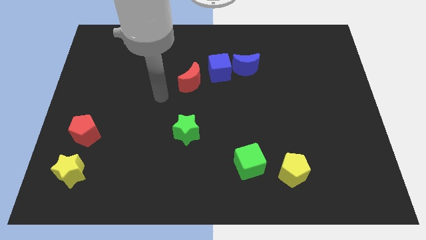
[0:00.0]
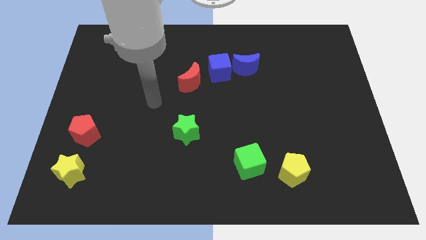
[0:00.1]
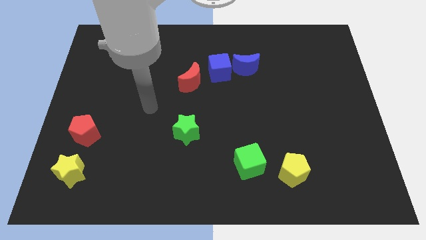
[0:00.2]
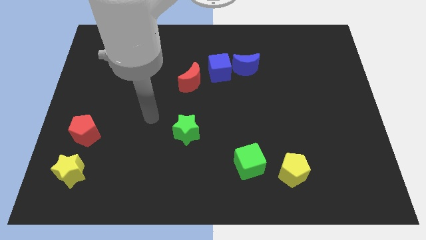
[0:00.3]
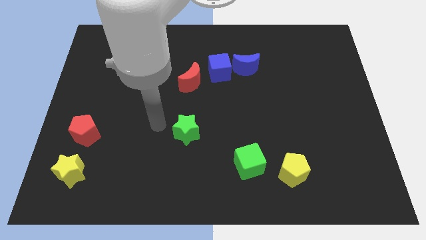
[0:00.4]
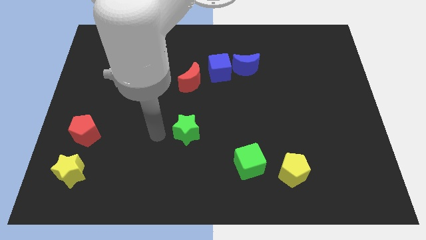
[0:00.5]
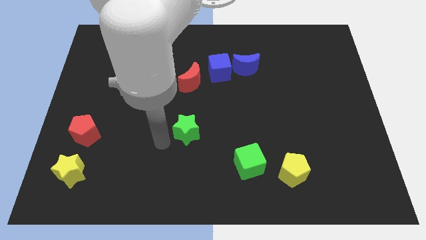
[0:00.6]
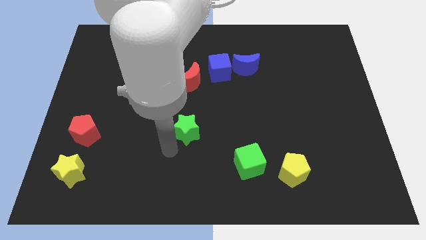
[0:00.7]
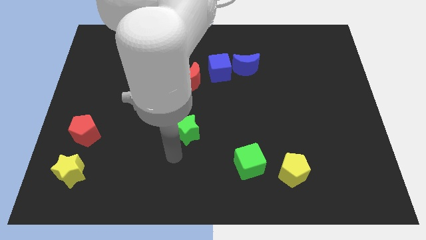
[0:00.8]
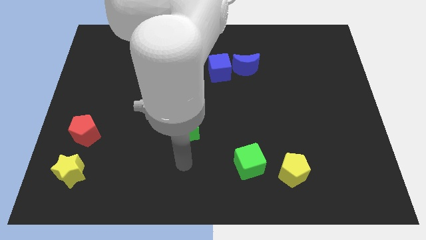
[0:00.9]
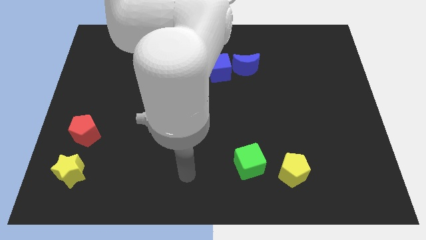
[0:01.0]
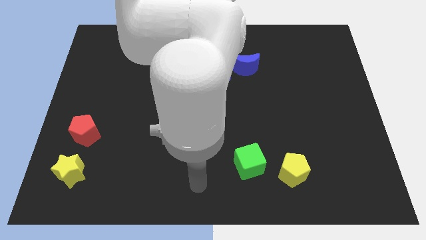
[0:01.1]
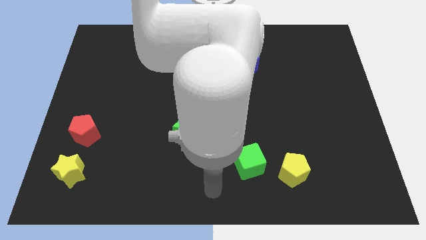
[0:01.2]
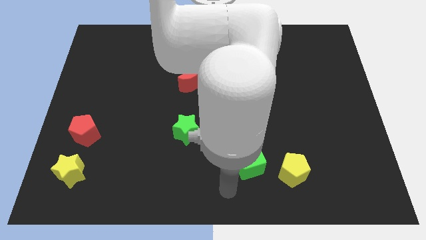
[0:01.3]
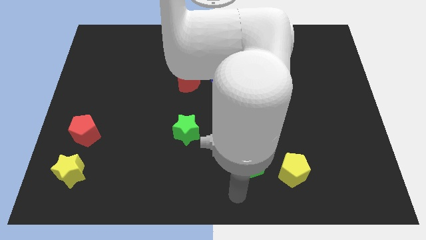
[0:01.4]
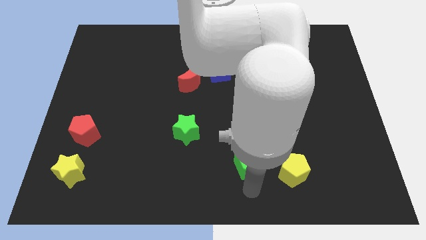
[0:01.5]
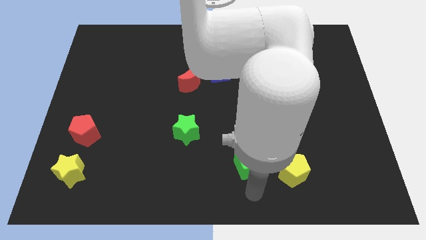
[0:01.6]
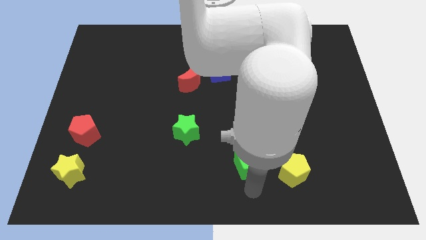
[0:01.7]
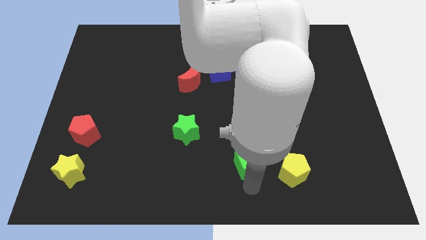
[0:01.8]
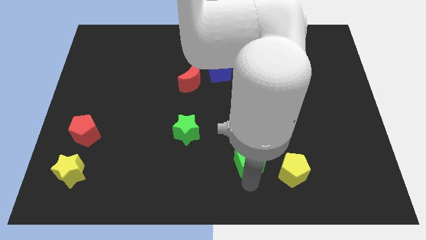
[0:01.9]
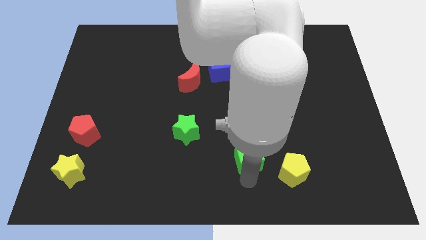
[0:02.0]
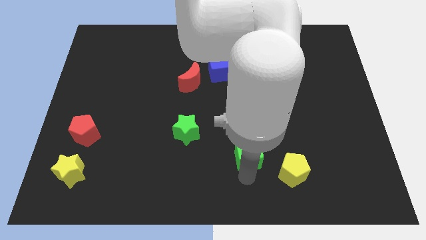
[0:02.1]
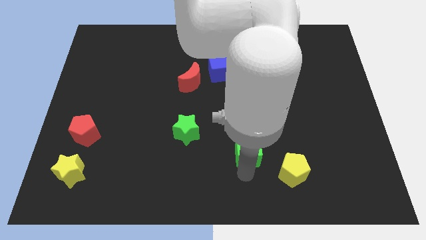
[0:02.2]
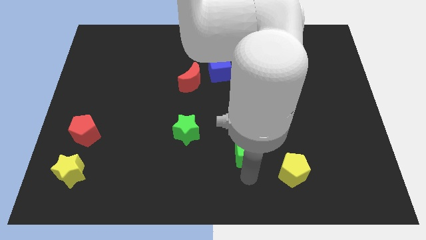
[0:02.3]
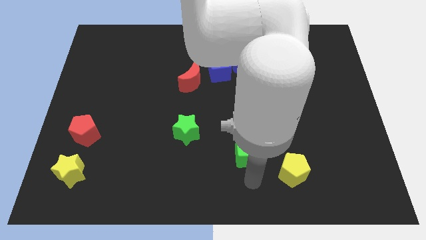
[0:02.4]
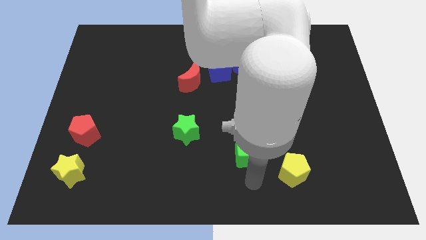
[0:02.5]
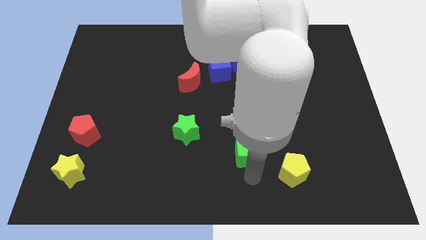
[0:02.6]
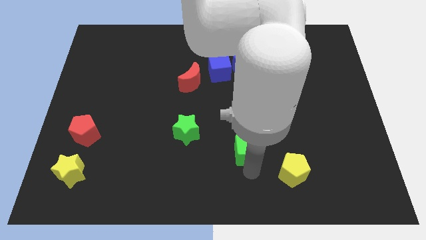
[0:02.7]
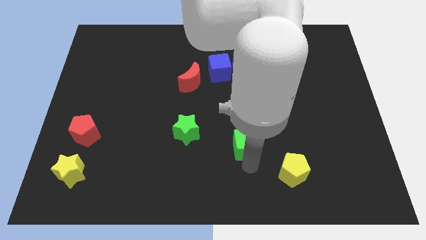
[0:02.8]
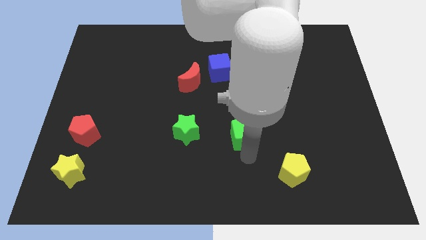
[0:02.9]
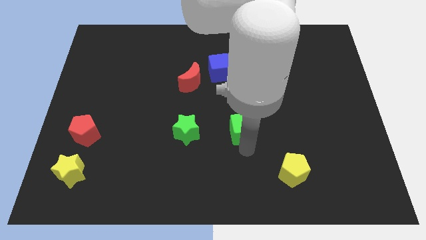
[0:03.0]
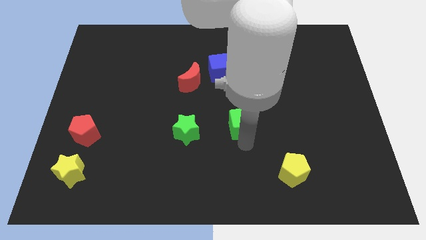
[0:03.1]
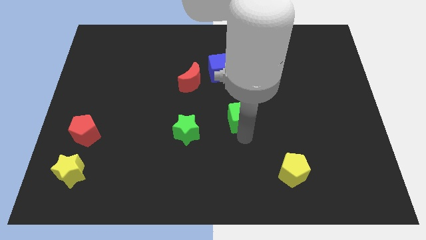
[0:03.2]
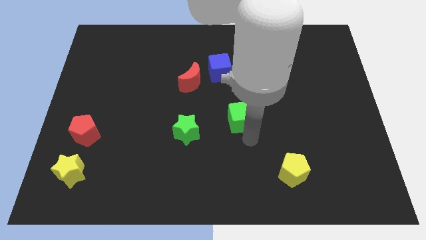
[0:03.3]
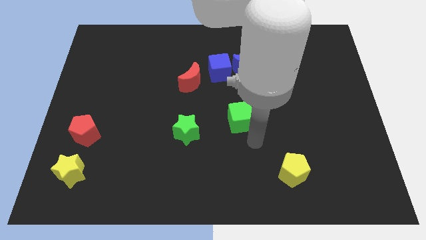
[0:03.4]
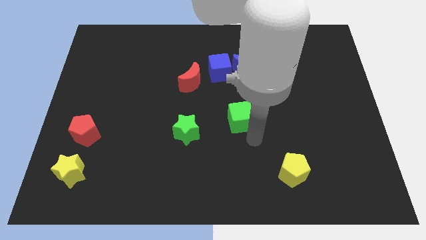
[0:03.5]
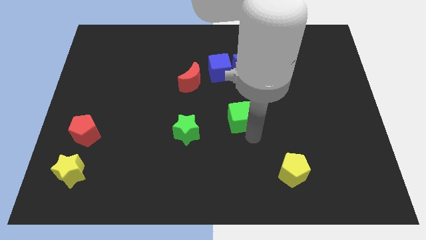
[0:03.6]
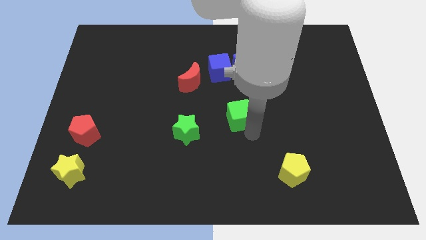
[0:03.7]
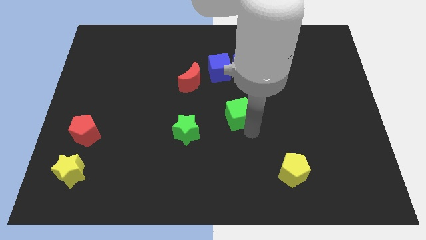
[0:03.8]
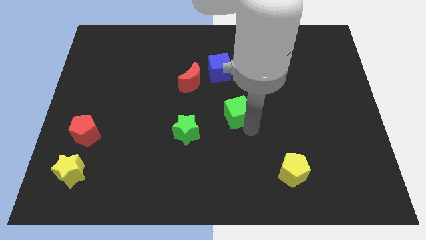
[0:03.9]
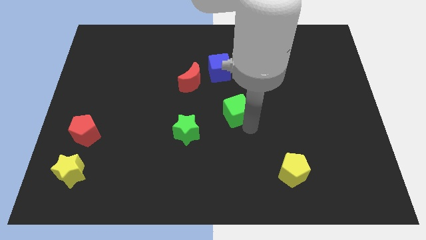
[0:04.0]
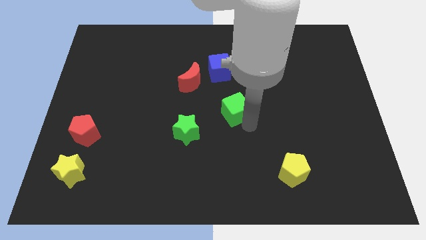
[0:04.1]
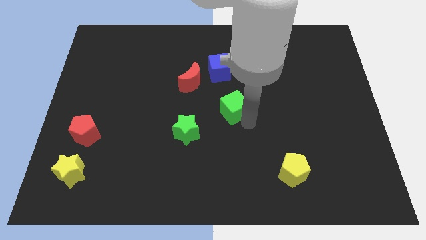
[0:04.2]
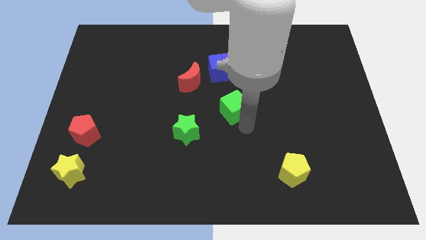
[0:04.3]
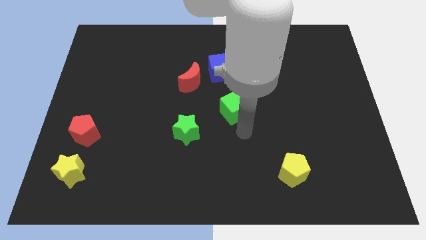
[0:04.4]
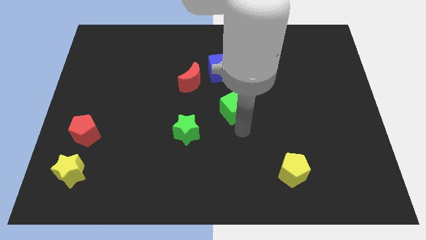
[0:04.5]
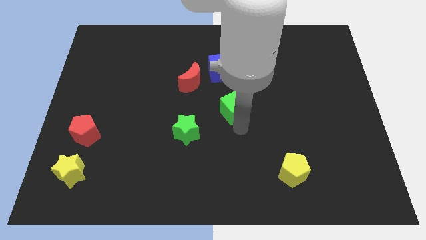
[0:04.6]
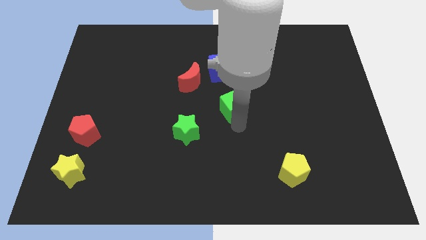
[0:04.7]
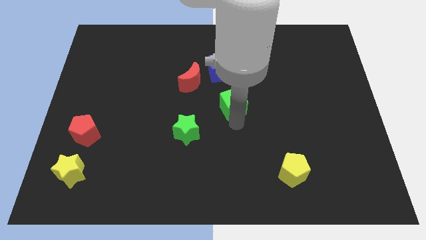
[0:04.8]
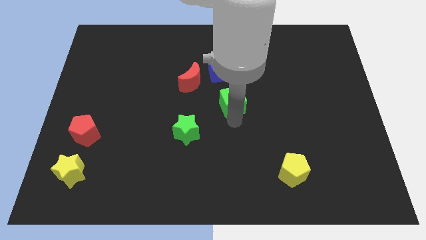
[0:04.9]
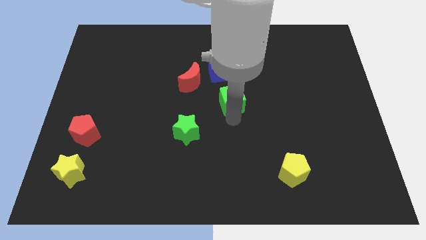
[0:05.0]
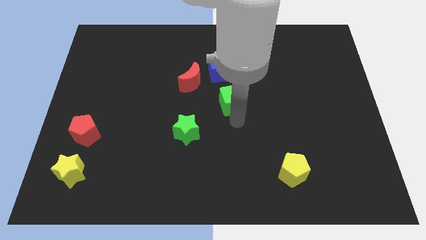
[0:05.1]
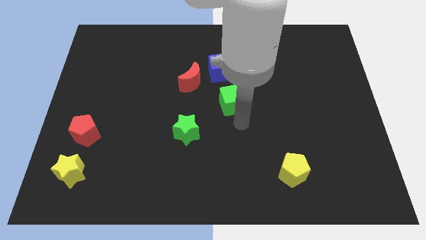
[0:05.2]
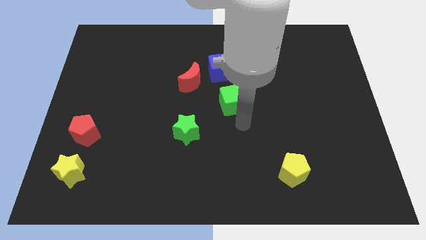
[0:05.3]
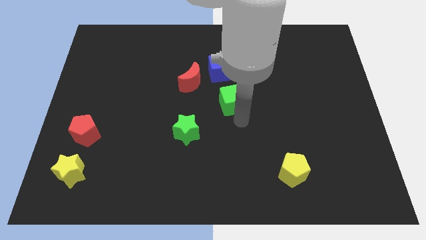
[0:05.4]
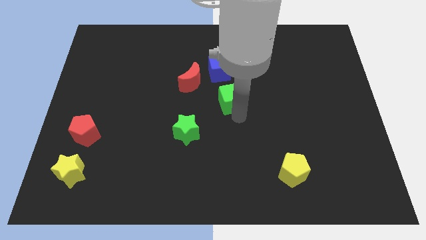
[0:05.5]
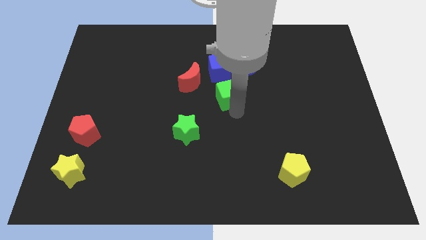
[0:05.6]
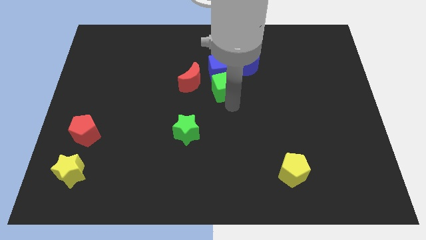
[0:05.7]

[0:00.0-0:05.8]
put the green cube towards the blue cube

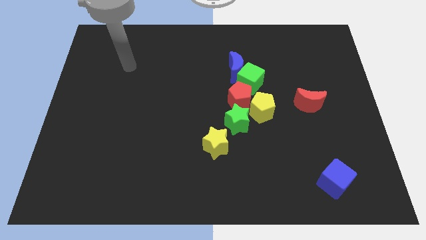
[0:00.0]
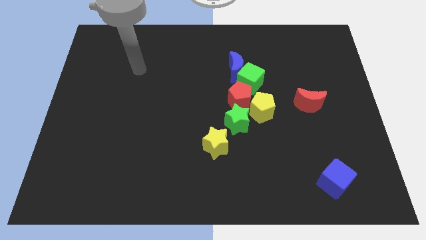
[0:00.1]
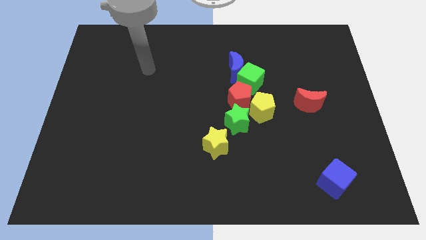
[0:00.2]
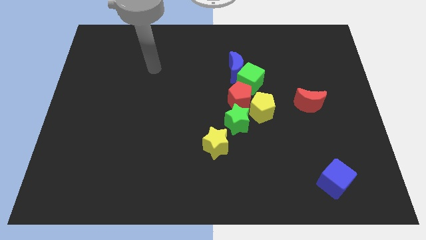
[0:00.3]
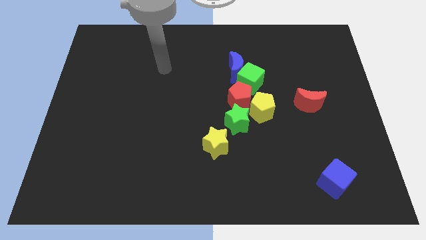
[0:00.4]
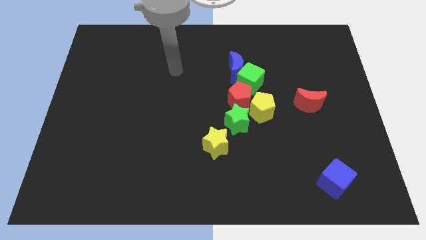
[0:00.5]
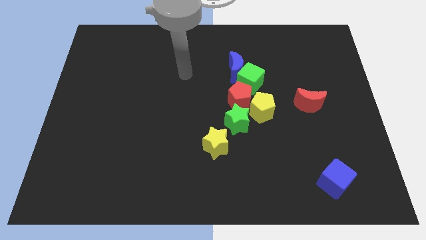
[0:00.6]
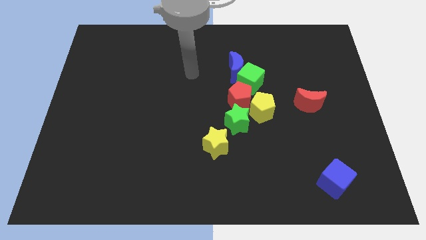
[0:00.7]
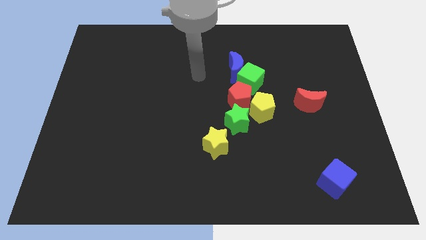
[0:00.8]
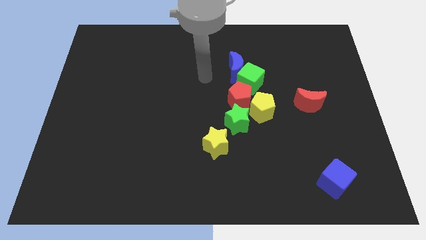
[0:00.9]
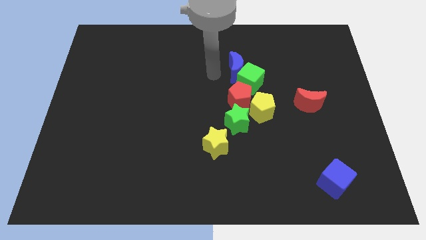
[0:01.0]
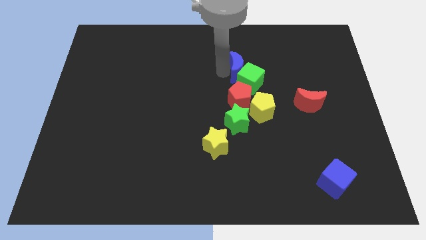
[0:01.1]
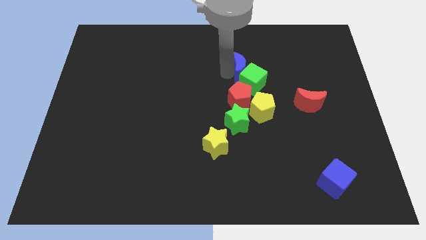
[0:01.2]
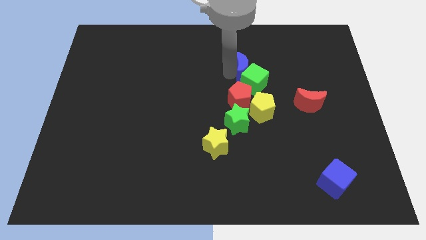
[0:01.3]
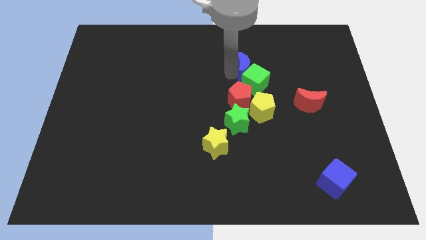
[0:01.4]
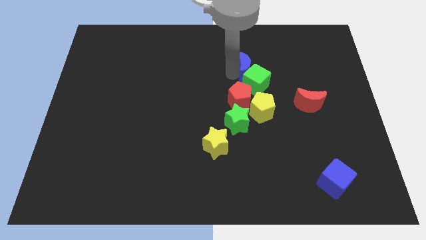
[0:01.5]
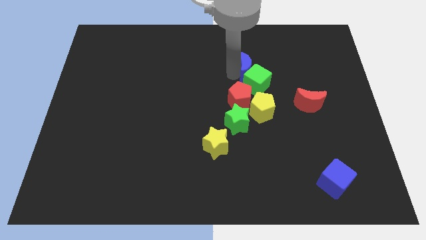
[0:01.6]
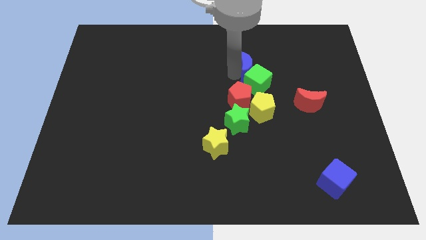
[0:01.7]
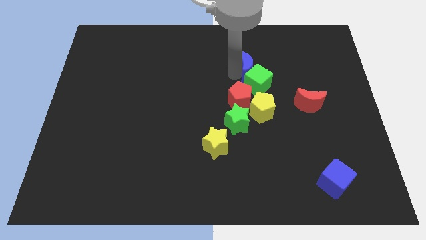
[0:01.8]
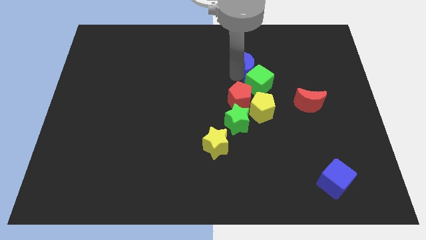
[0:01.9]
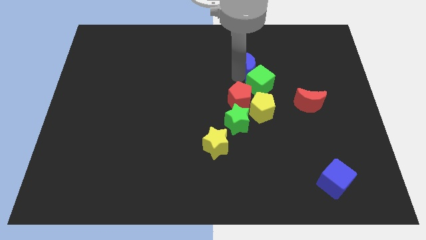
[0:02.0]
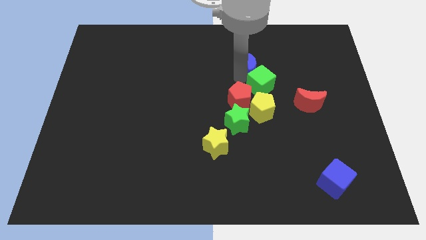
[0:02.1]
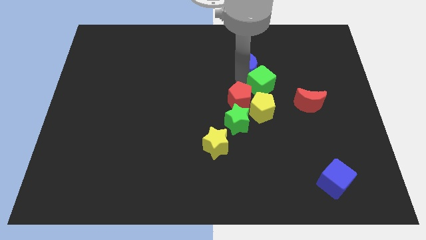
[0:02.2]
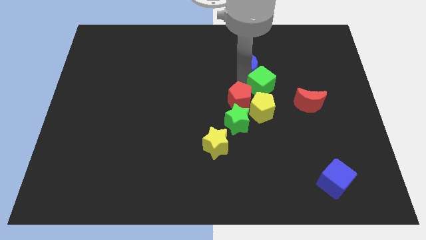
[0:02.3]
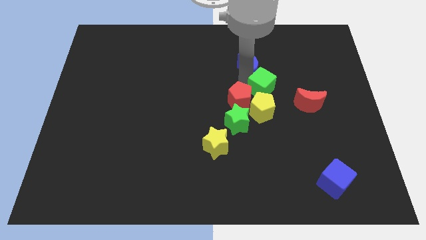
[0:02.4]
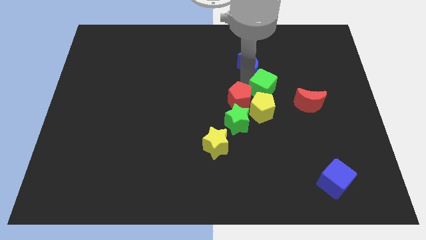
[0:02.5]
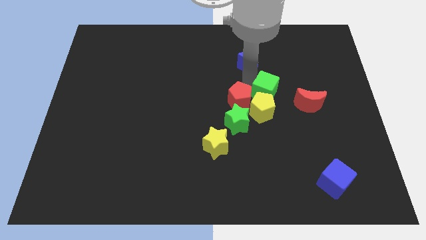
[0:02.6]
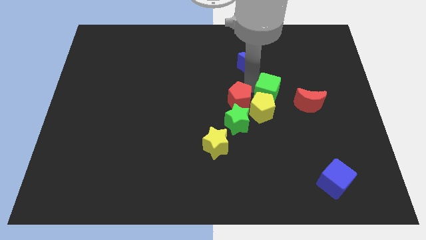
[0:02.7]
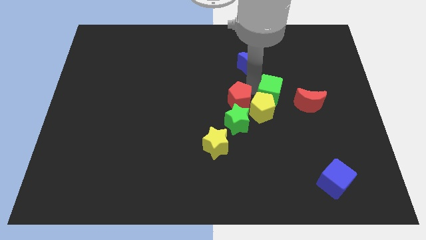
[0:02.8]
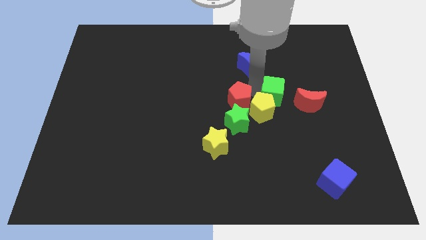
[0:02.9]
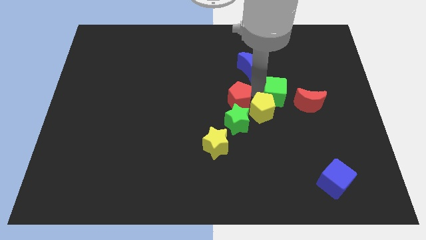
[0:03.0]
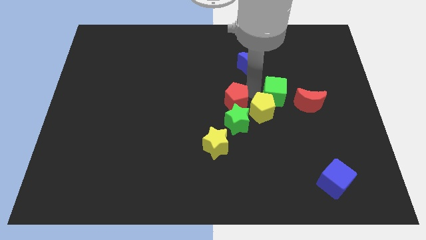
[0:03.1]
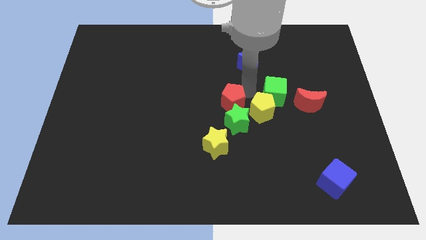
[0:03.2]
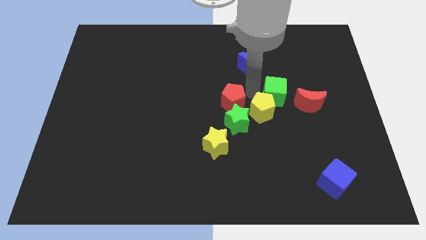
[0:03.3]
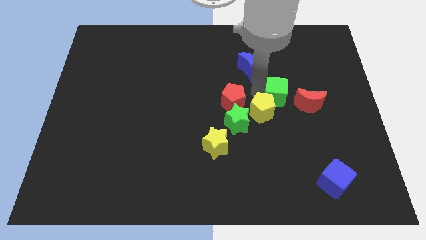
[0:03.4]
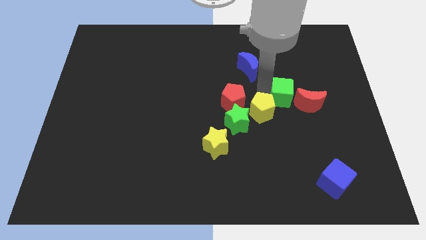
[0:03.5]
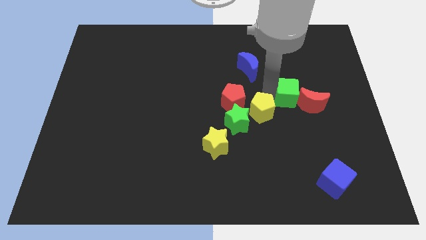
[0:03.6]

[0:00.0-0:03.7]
move the green cube next to the red moon
